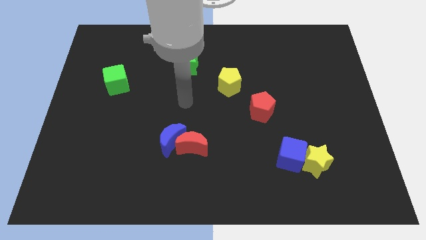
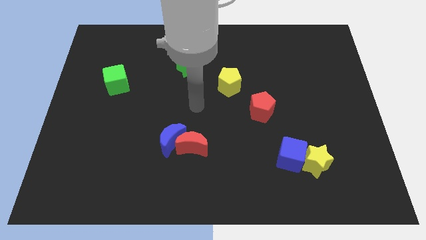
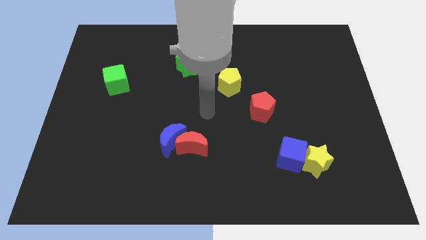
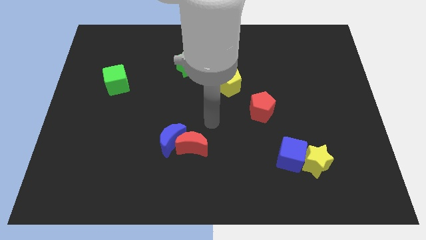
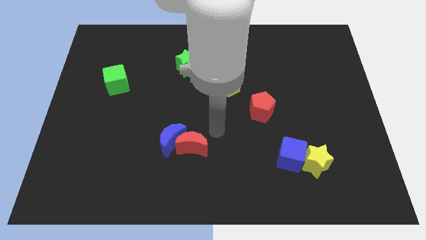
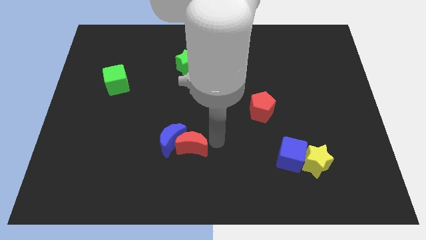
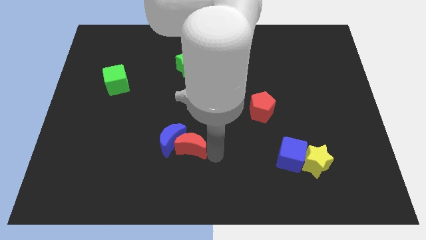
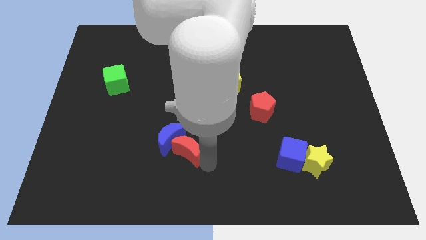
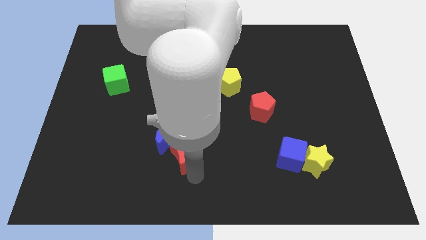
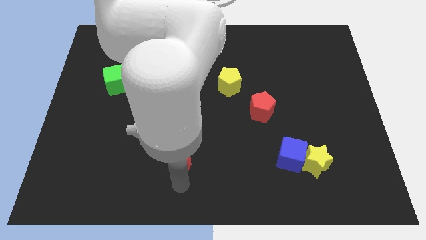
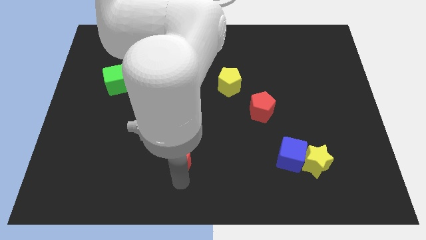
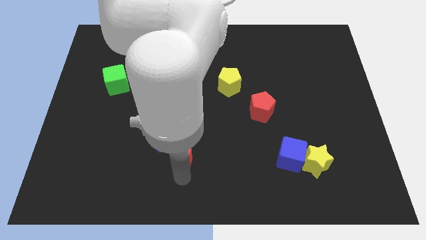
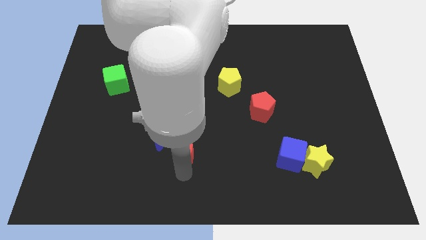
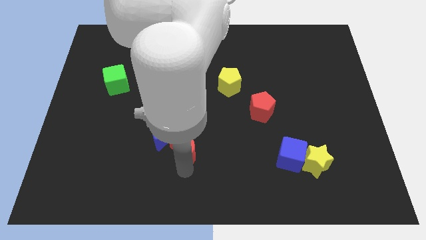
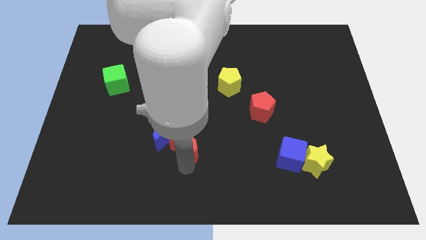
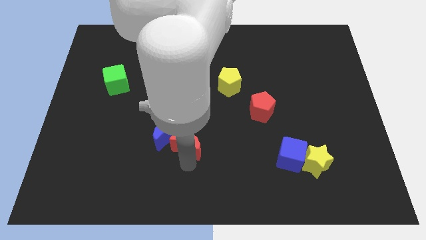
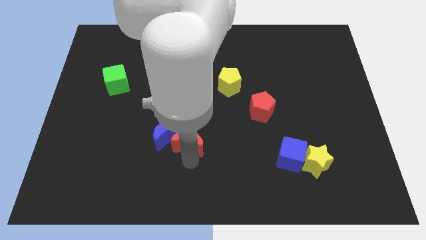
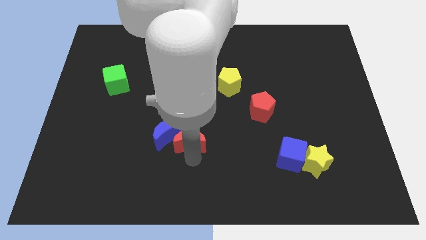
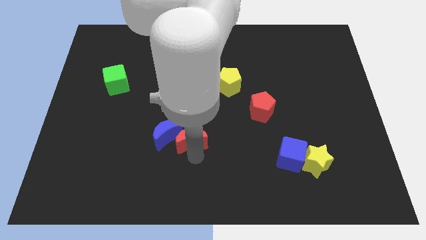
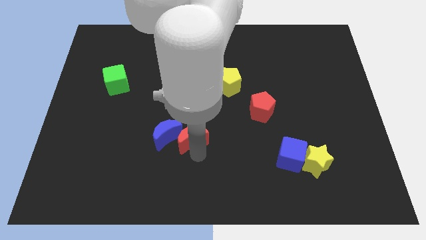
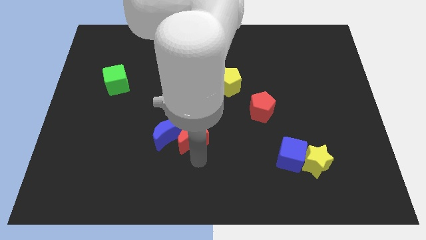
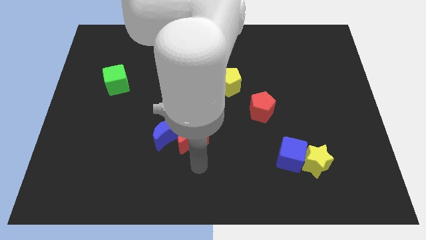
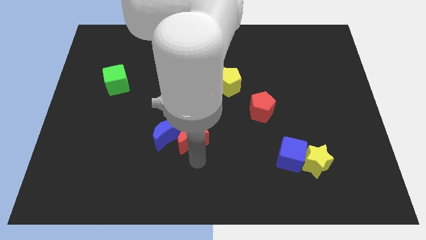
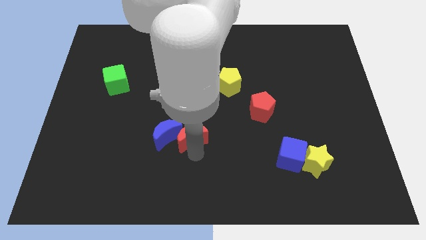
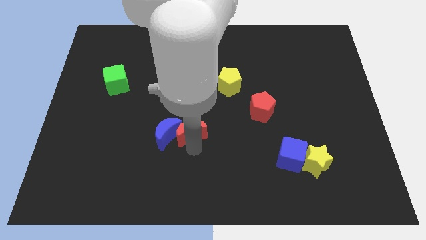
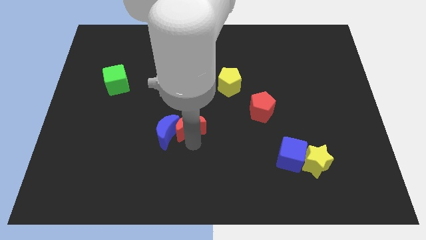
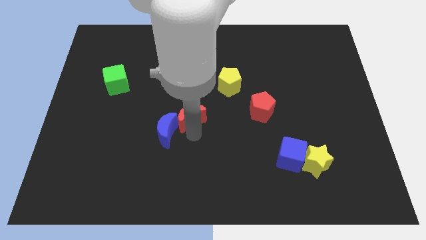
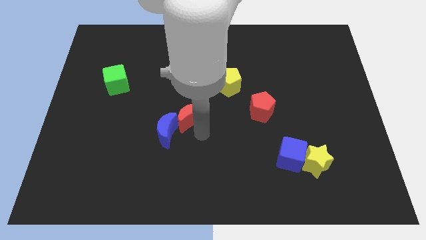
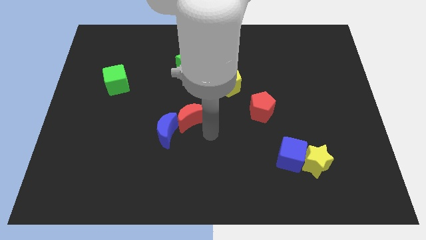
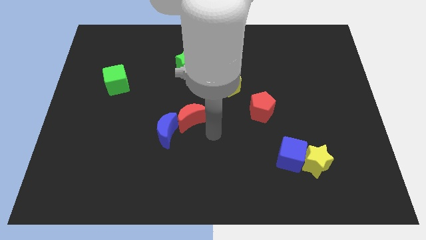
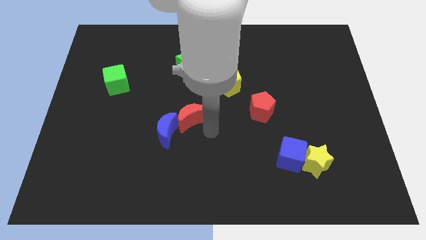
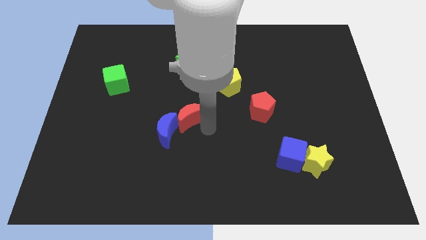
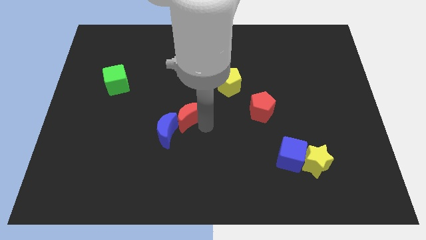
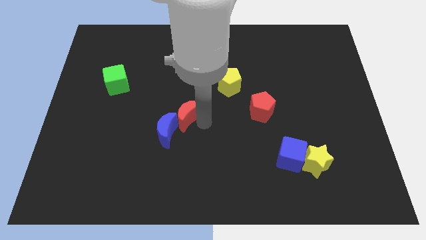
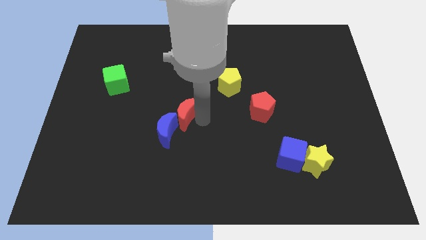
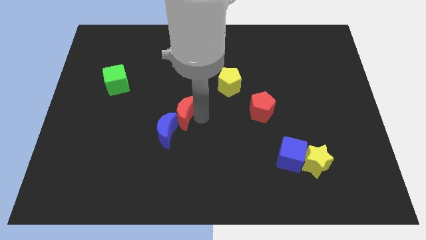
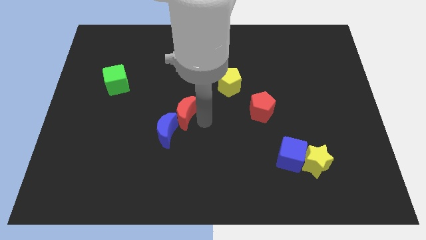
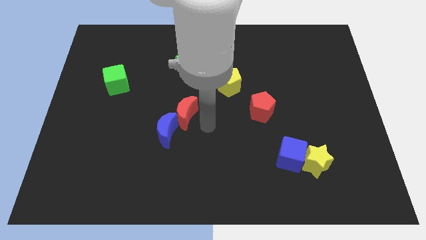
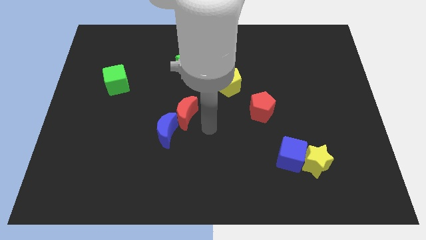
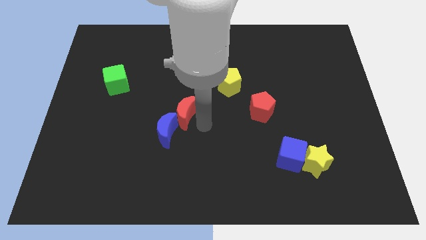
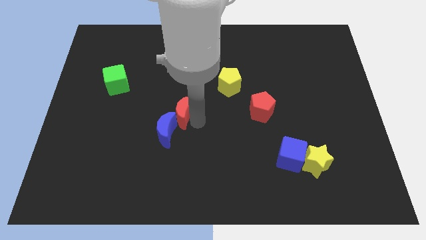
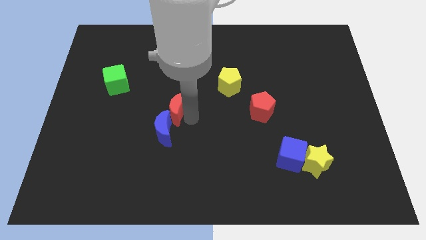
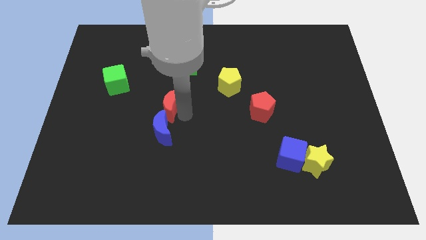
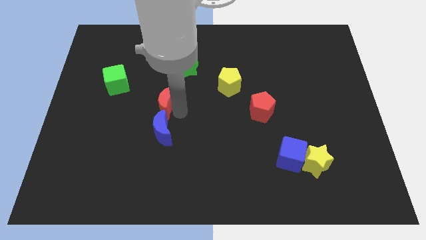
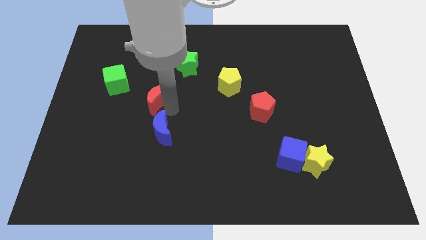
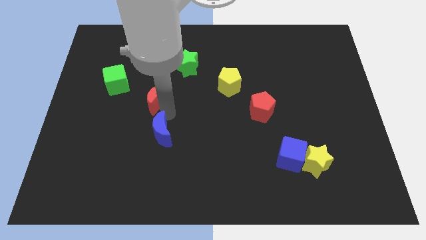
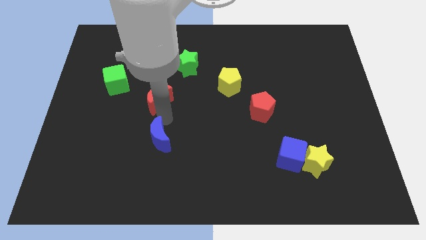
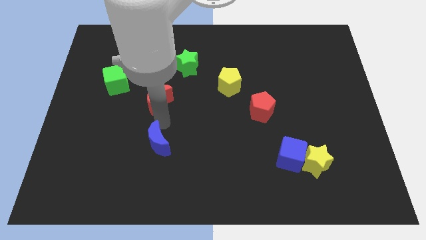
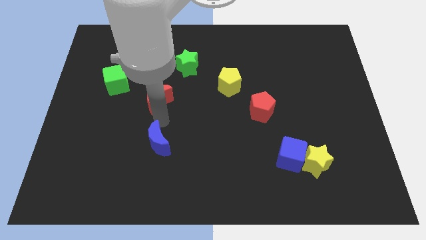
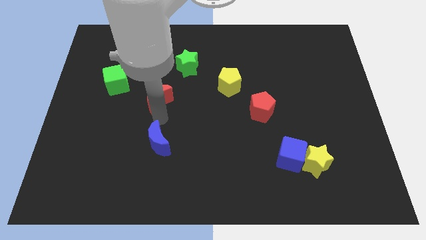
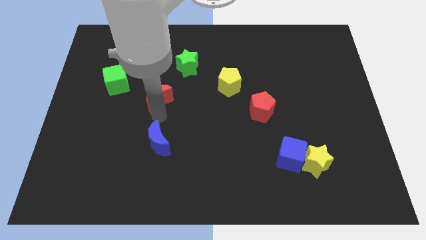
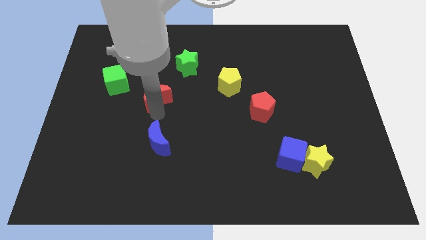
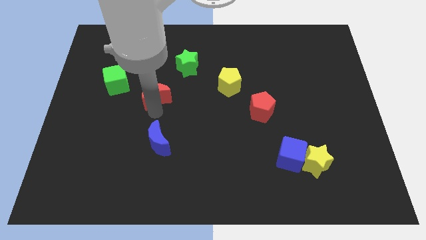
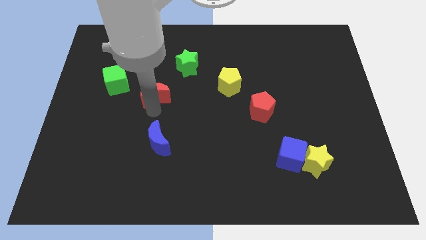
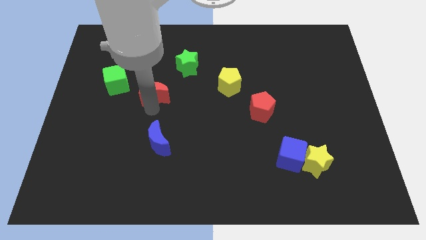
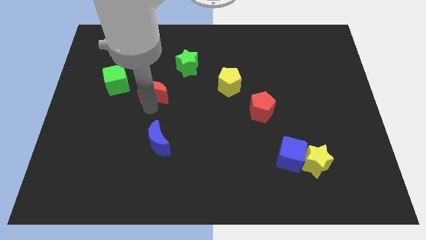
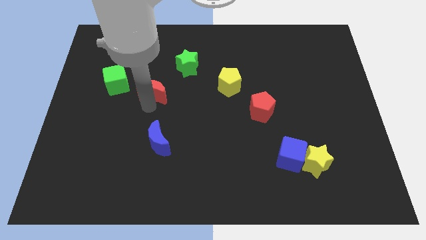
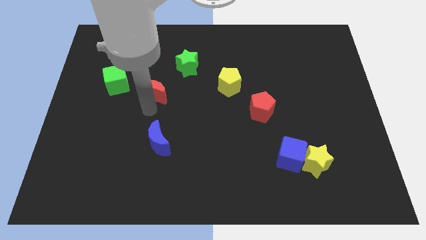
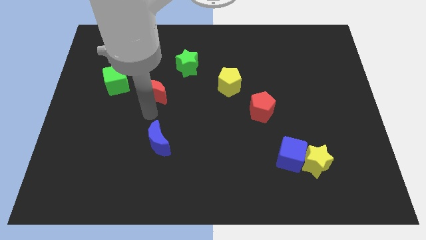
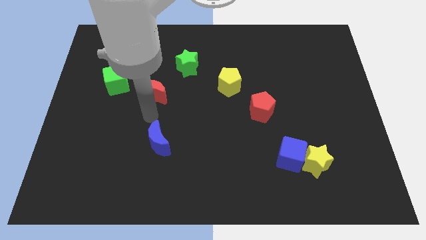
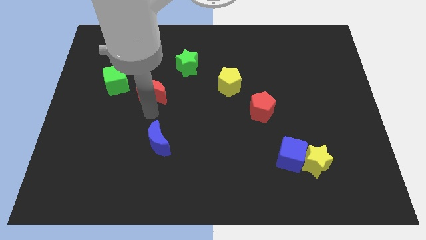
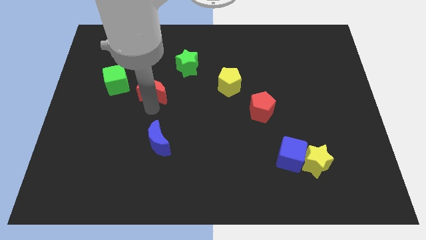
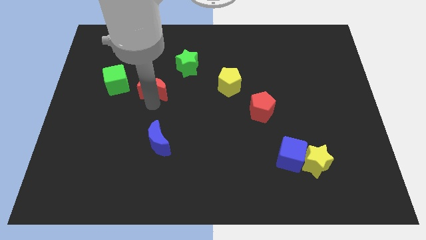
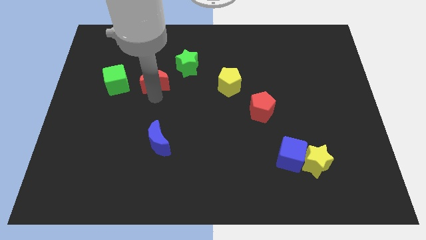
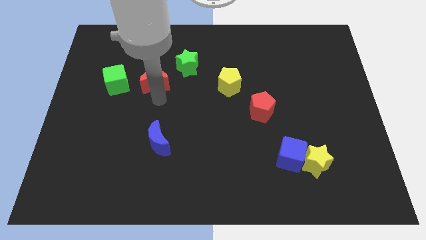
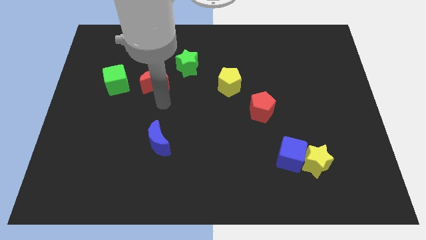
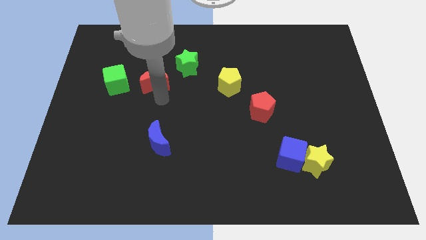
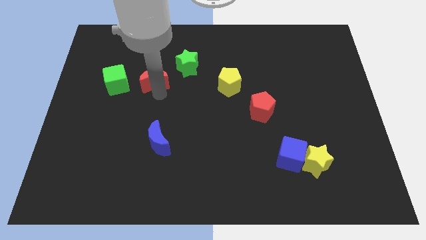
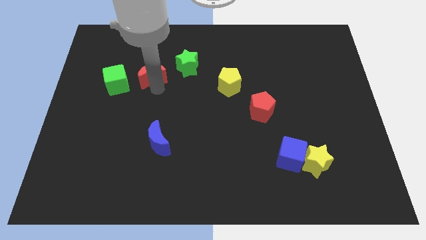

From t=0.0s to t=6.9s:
push the red moon to the left of the green star

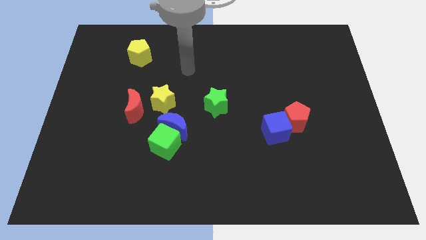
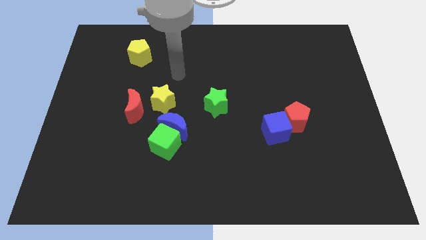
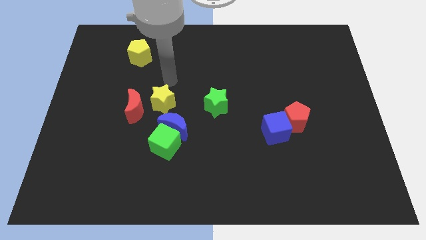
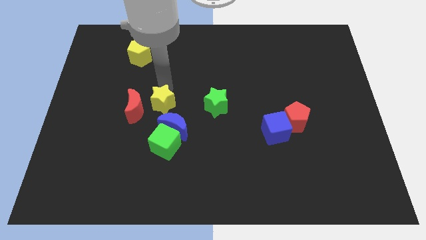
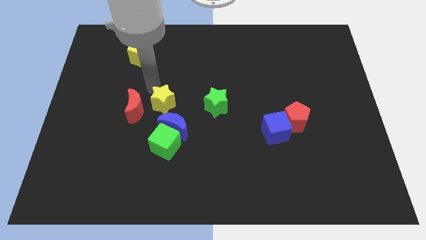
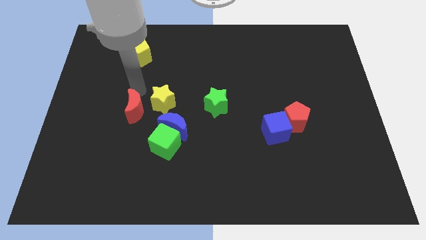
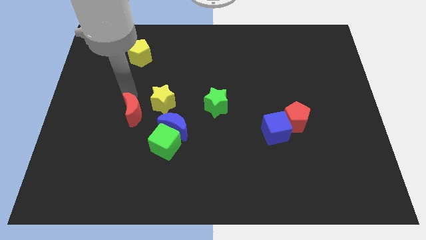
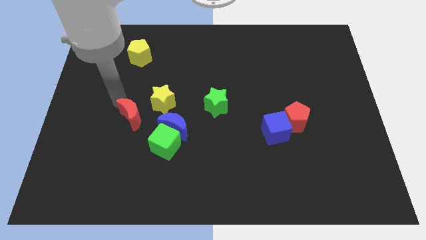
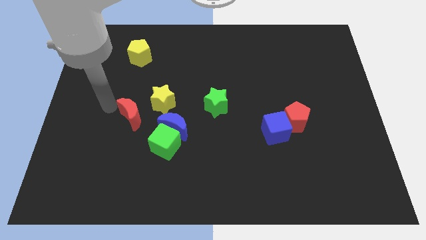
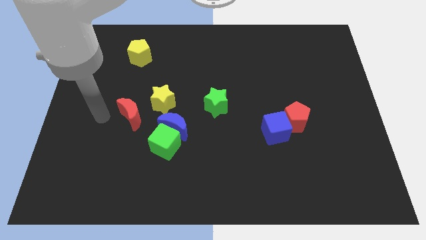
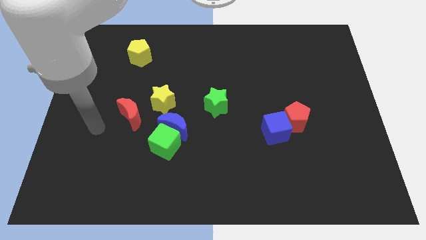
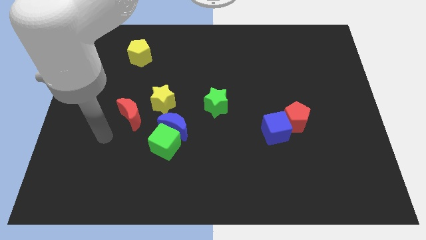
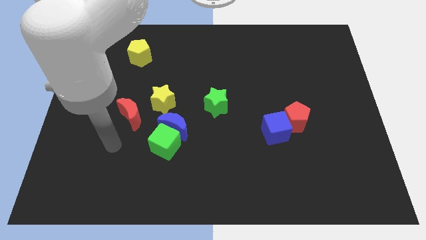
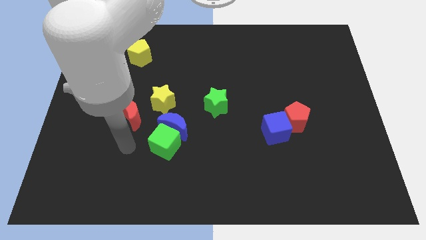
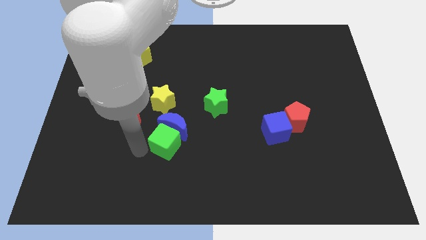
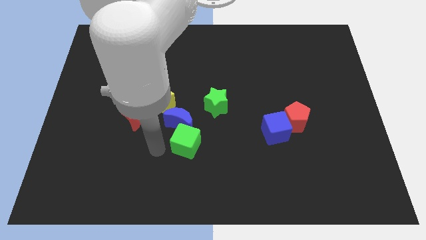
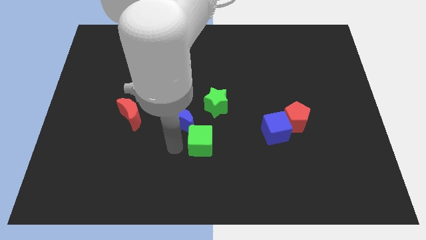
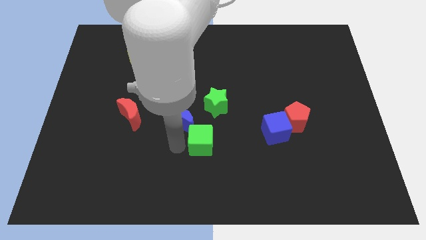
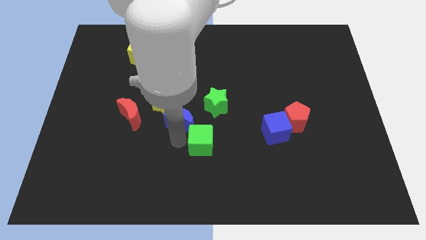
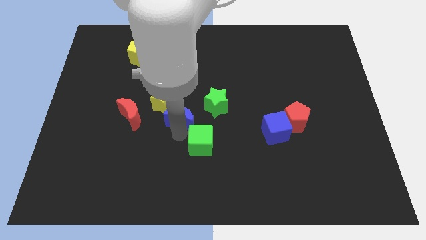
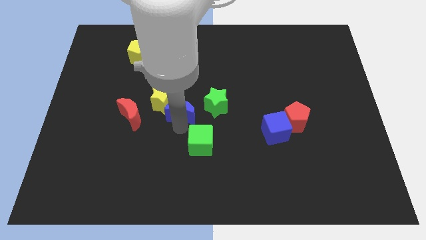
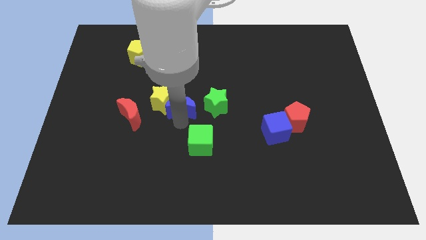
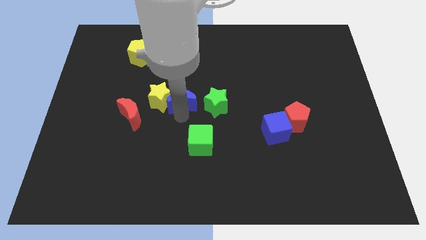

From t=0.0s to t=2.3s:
put the blue moon to the top right side of the yellow star
